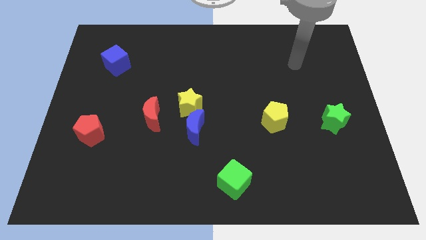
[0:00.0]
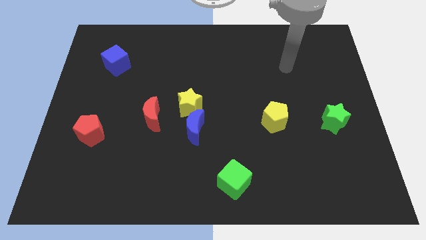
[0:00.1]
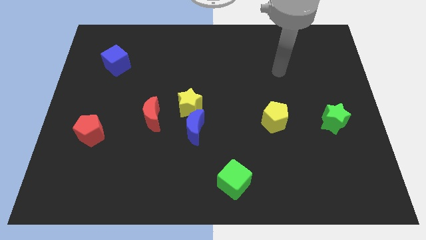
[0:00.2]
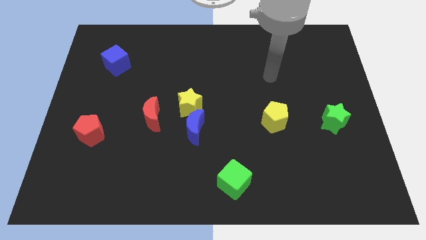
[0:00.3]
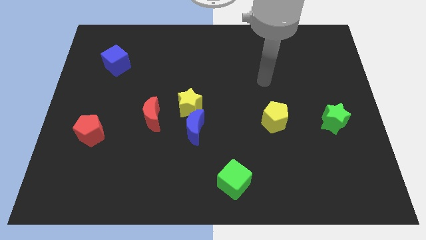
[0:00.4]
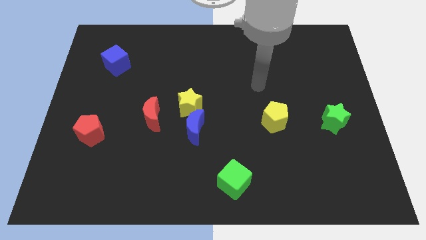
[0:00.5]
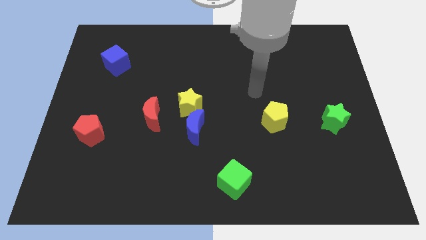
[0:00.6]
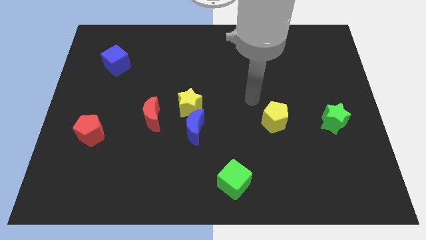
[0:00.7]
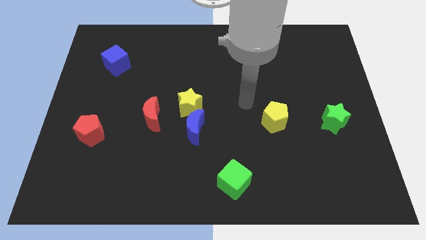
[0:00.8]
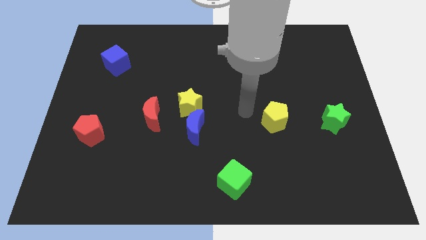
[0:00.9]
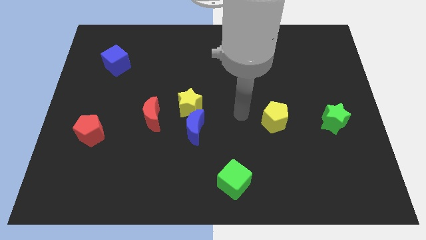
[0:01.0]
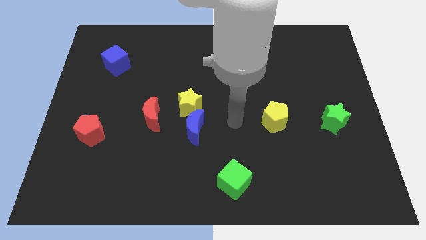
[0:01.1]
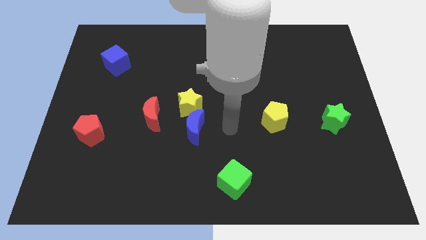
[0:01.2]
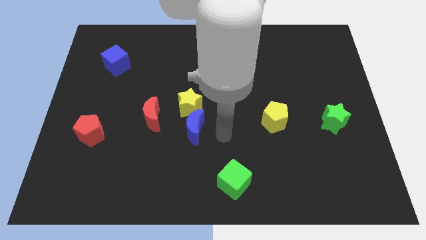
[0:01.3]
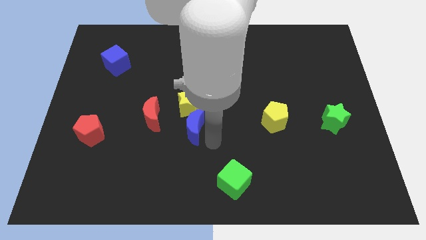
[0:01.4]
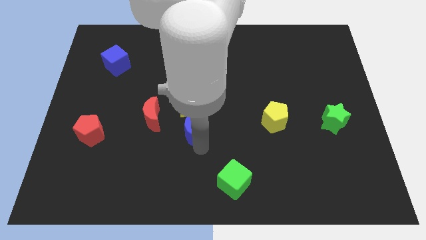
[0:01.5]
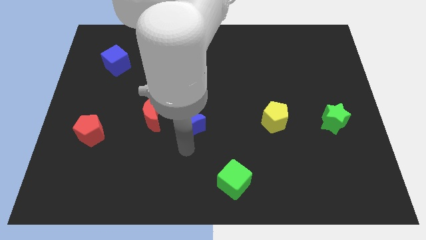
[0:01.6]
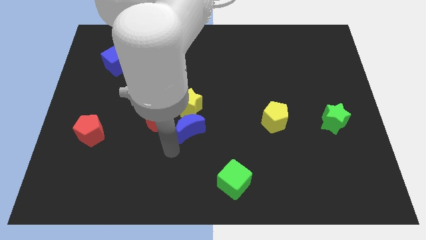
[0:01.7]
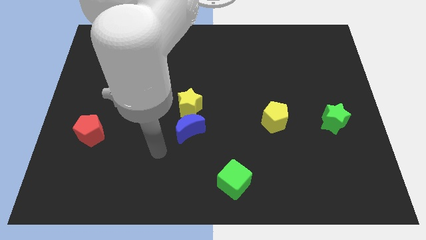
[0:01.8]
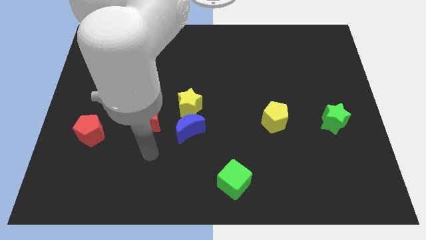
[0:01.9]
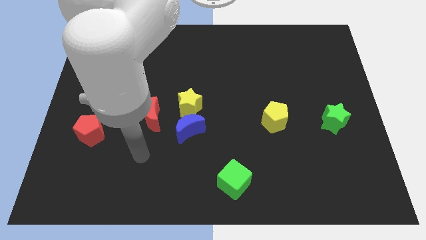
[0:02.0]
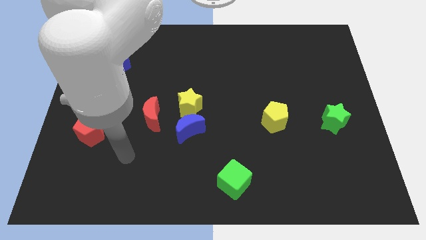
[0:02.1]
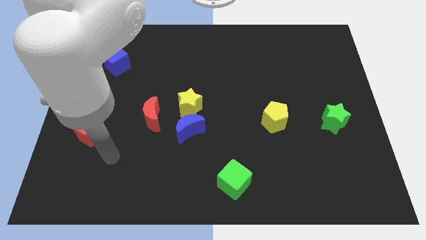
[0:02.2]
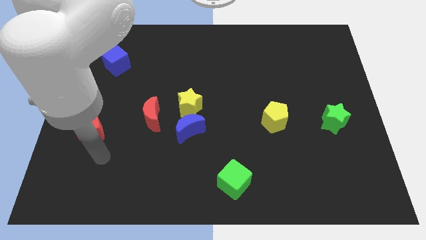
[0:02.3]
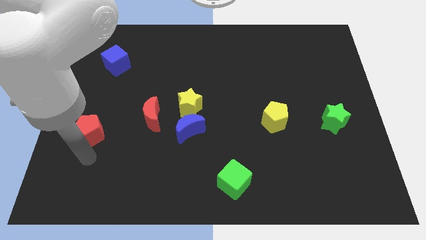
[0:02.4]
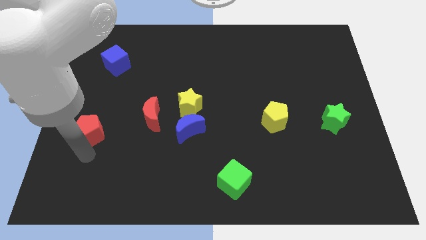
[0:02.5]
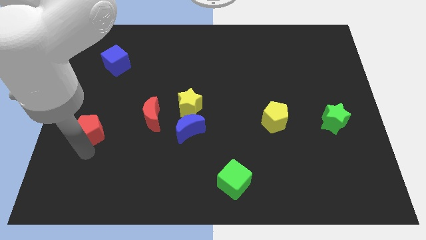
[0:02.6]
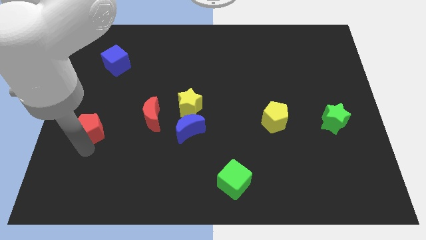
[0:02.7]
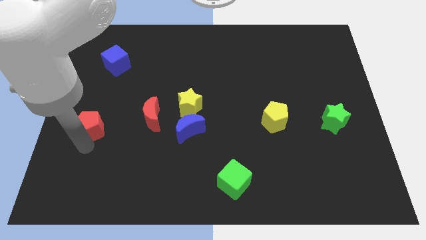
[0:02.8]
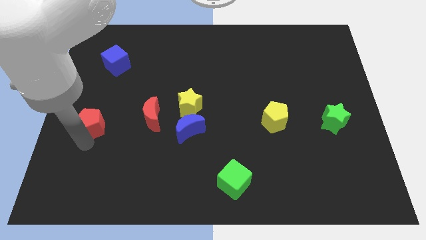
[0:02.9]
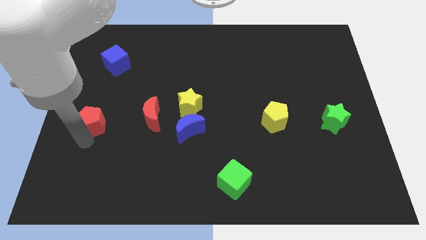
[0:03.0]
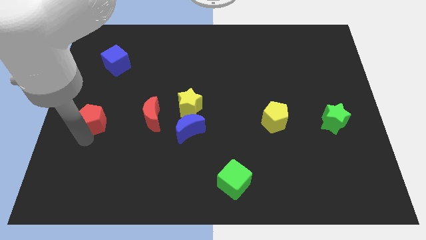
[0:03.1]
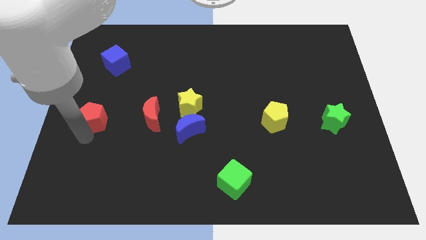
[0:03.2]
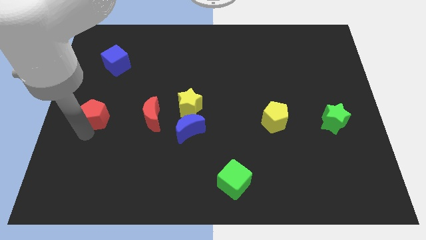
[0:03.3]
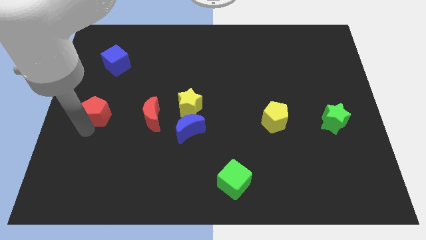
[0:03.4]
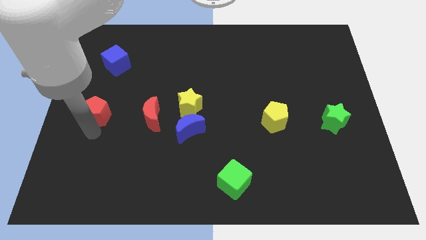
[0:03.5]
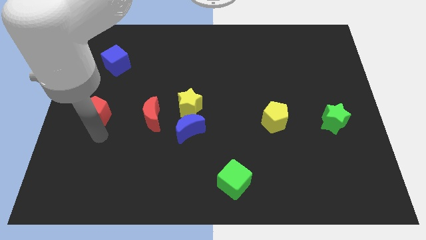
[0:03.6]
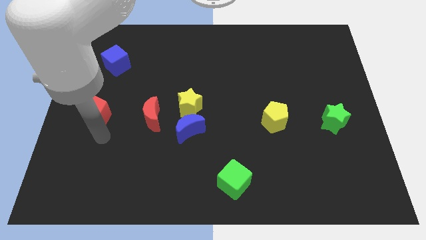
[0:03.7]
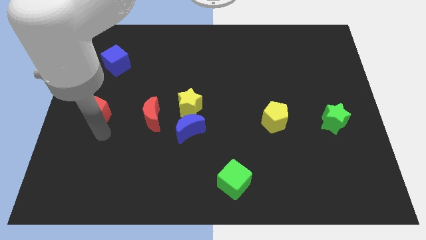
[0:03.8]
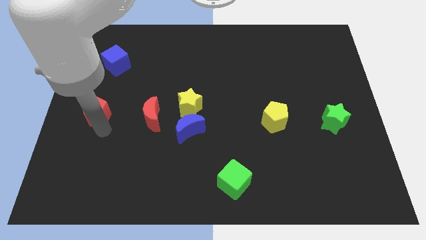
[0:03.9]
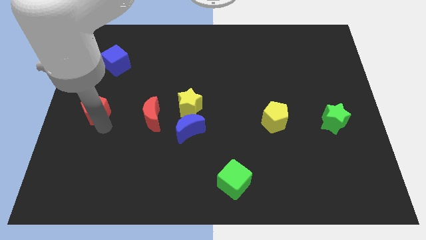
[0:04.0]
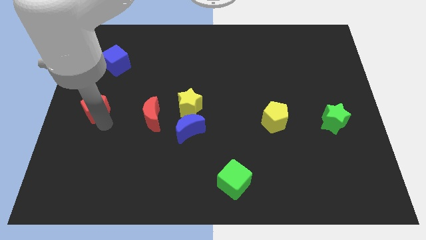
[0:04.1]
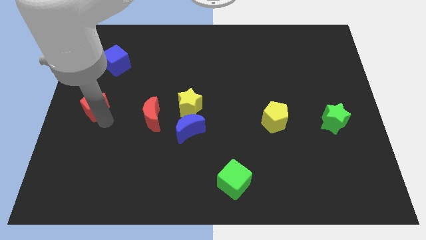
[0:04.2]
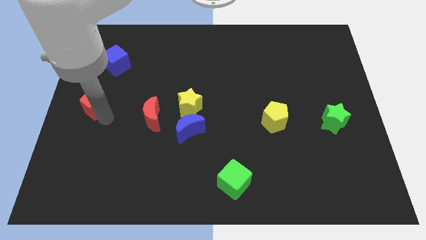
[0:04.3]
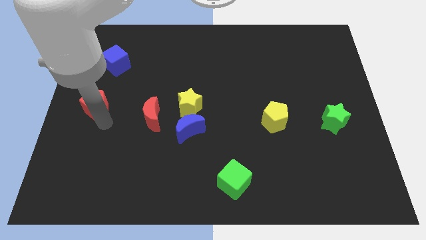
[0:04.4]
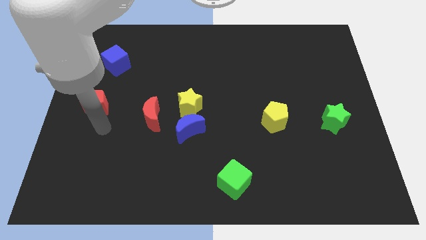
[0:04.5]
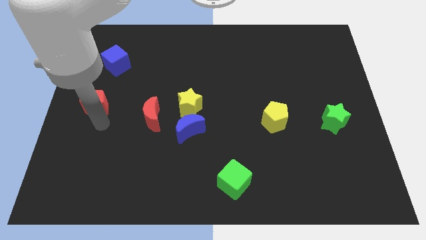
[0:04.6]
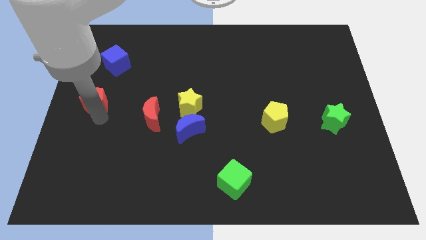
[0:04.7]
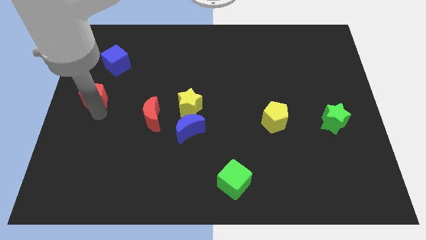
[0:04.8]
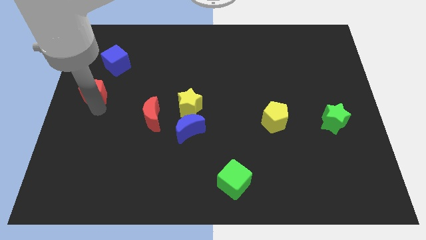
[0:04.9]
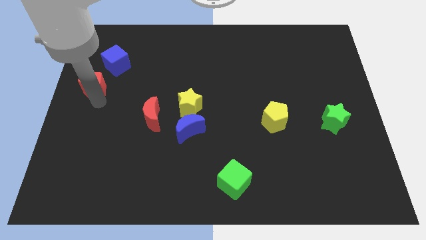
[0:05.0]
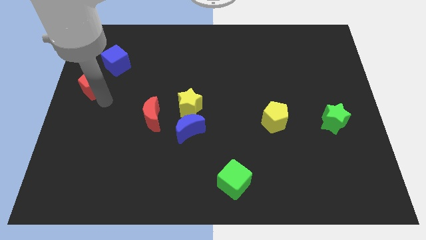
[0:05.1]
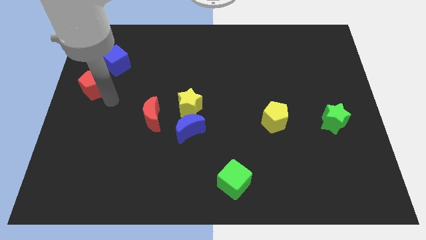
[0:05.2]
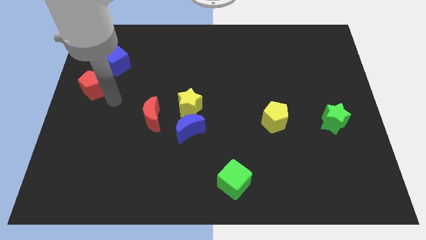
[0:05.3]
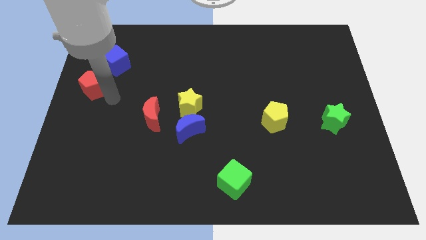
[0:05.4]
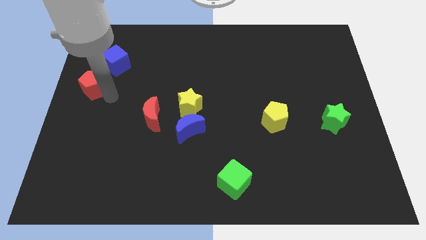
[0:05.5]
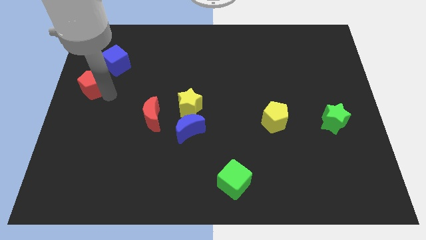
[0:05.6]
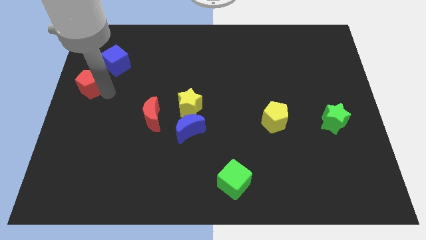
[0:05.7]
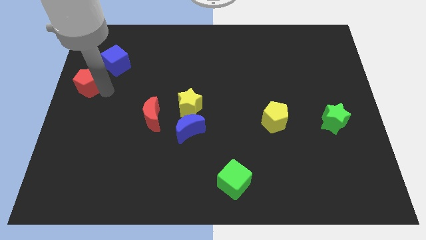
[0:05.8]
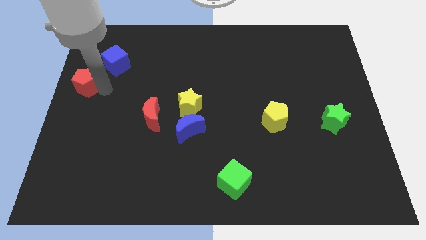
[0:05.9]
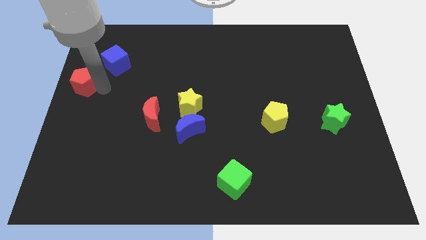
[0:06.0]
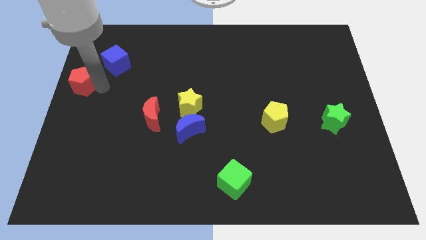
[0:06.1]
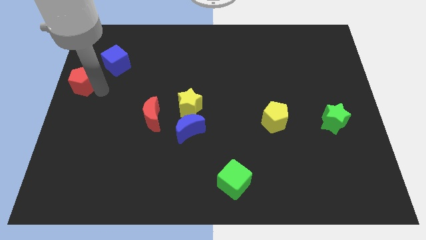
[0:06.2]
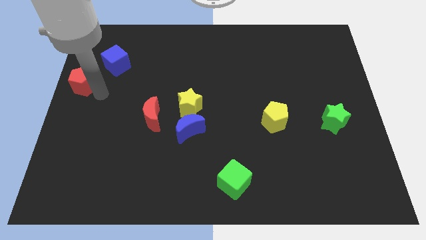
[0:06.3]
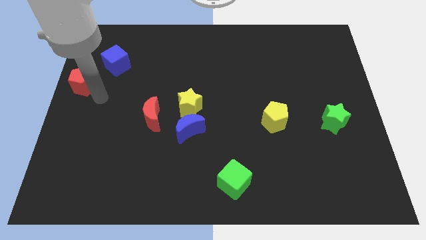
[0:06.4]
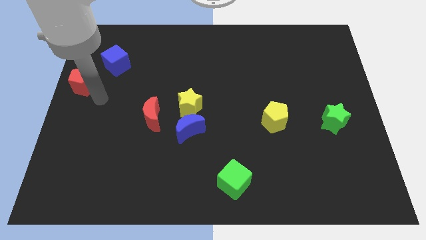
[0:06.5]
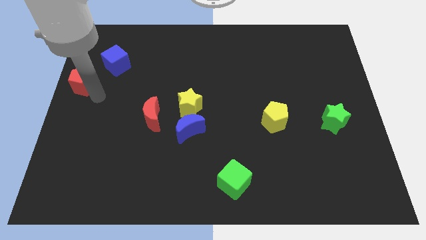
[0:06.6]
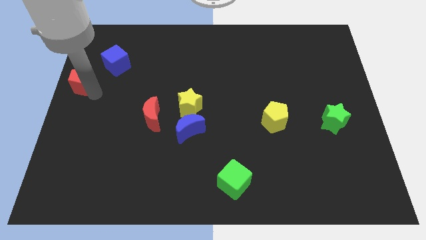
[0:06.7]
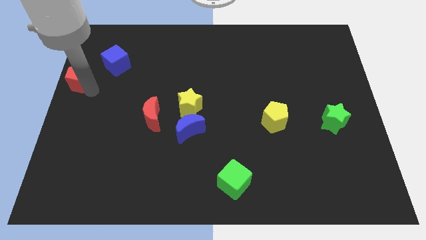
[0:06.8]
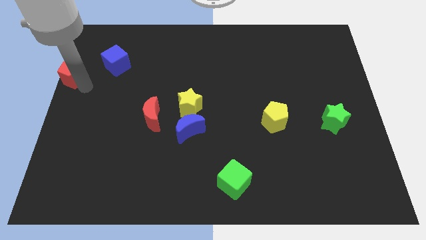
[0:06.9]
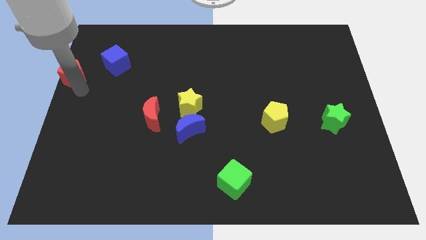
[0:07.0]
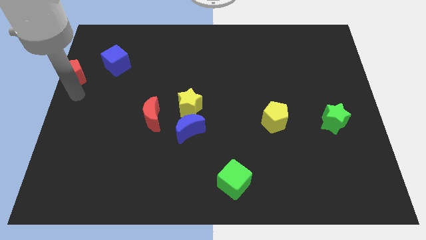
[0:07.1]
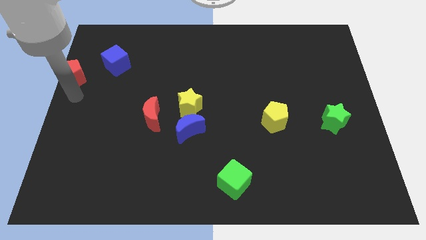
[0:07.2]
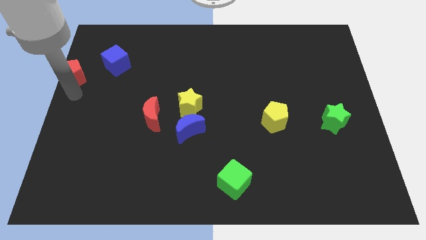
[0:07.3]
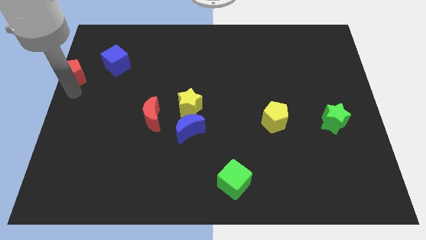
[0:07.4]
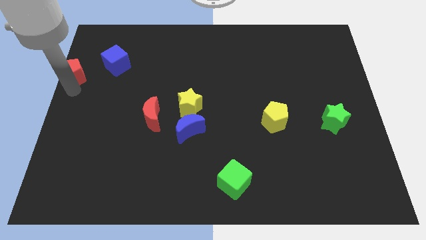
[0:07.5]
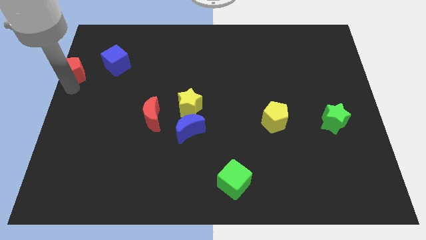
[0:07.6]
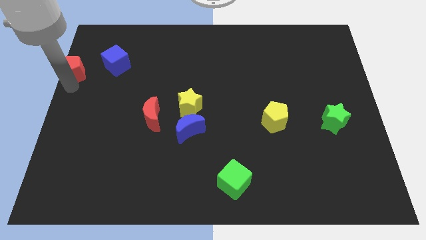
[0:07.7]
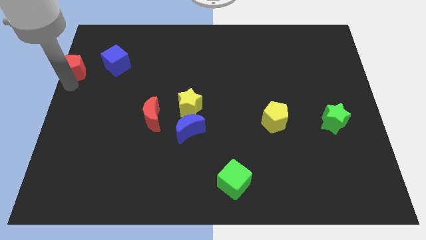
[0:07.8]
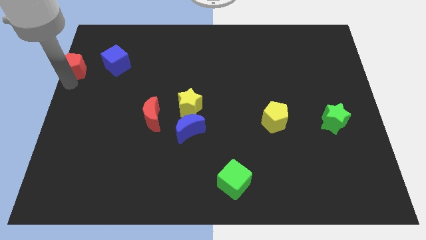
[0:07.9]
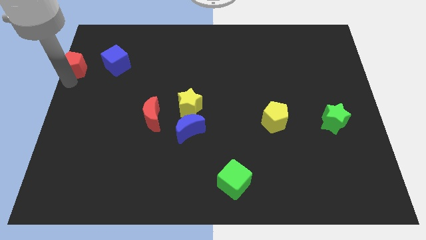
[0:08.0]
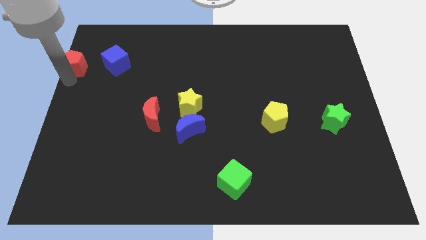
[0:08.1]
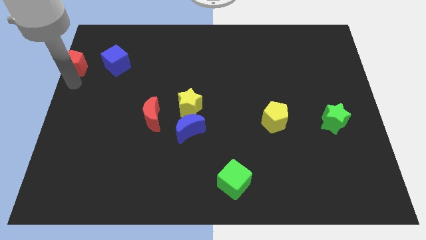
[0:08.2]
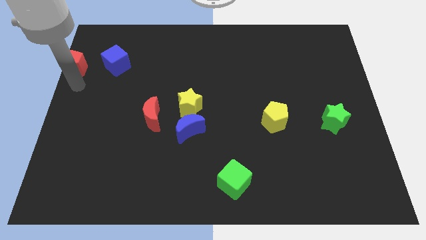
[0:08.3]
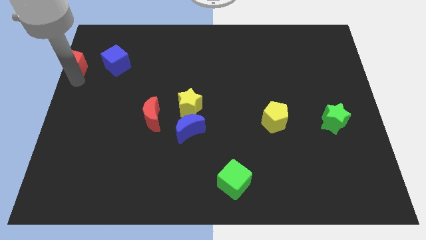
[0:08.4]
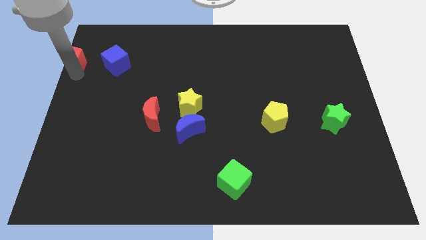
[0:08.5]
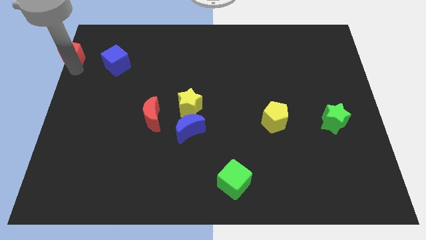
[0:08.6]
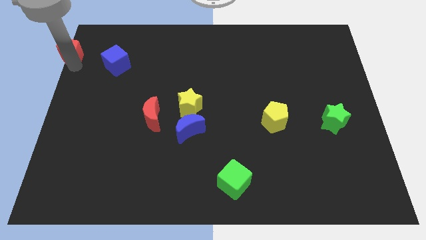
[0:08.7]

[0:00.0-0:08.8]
slide the red pentagon to the top left of the board
